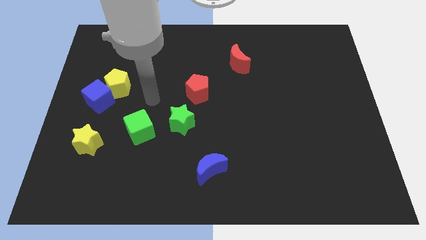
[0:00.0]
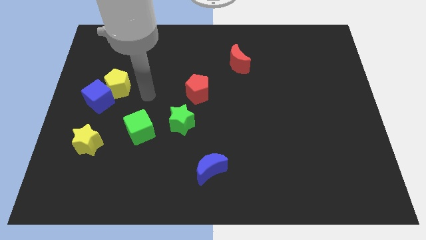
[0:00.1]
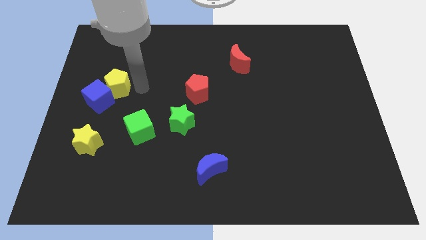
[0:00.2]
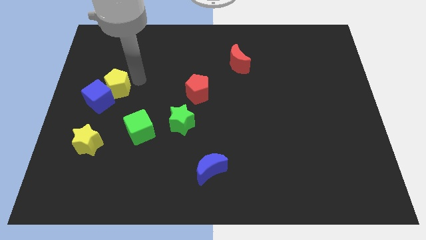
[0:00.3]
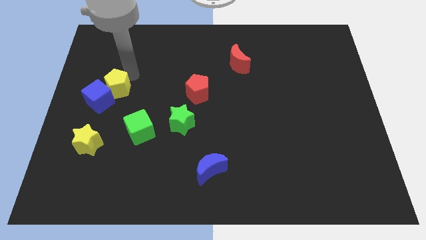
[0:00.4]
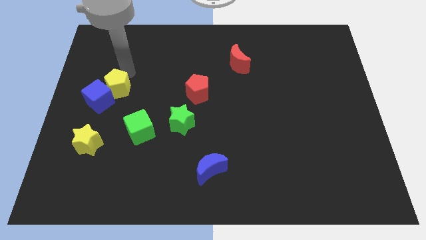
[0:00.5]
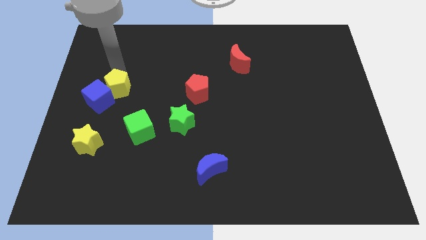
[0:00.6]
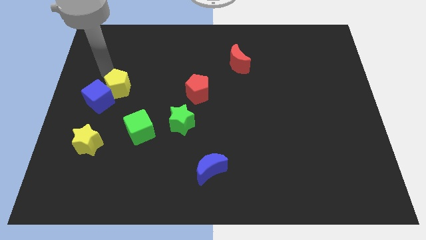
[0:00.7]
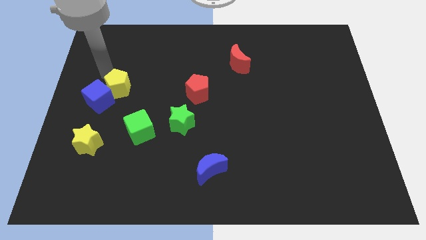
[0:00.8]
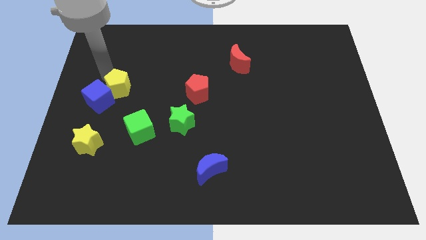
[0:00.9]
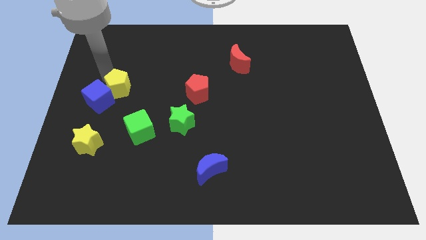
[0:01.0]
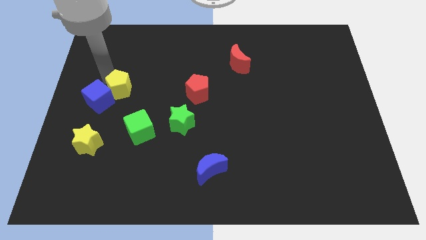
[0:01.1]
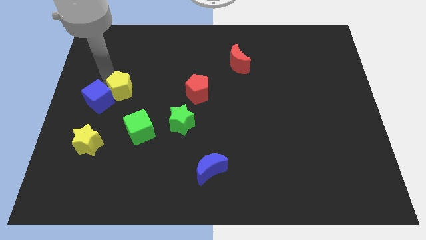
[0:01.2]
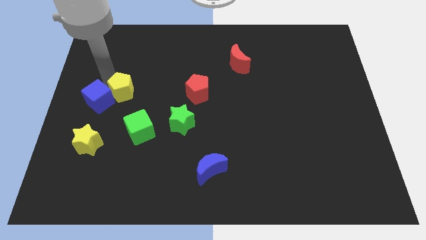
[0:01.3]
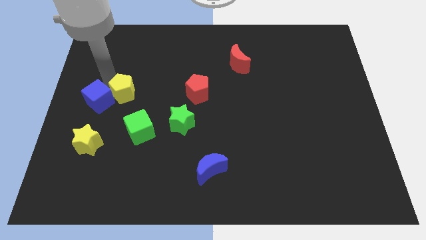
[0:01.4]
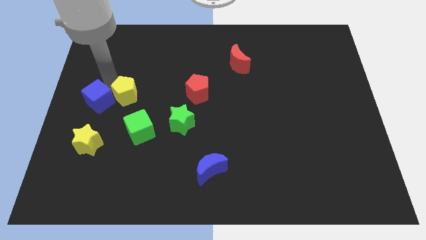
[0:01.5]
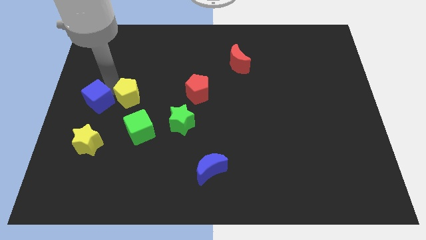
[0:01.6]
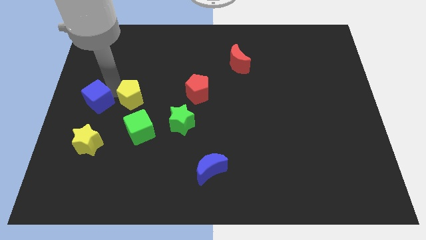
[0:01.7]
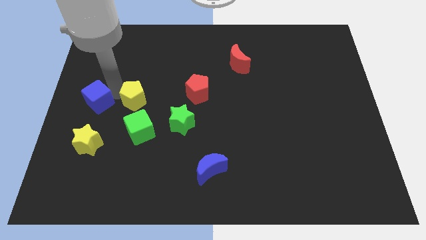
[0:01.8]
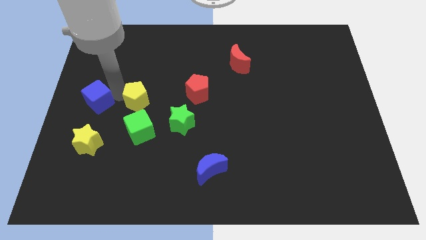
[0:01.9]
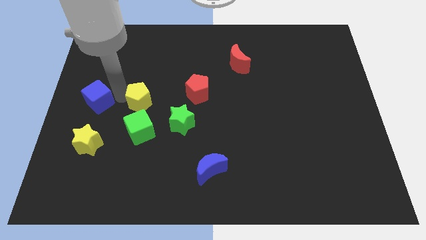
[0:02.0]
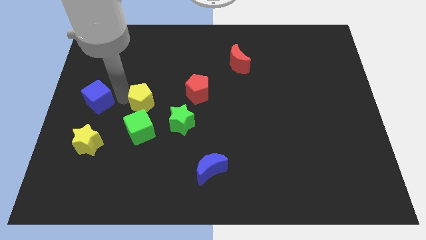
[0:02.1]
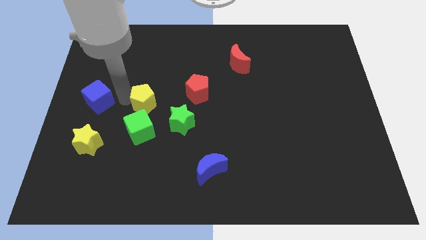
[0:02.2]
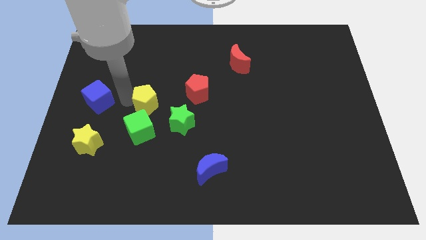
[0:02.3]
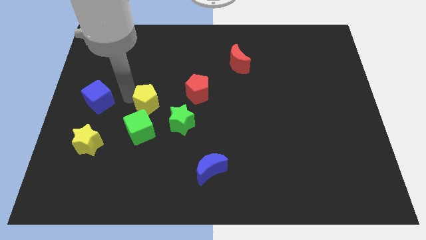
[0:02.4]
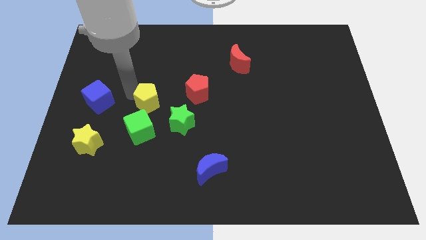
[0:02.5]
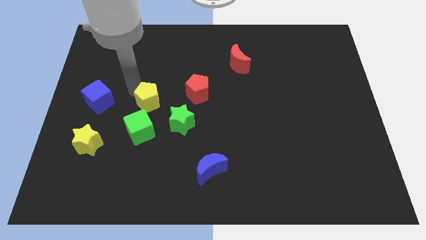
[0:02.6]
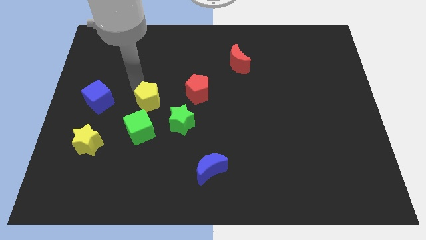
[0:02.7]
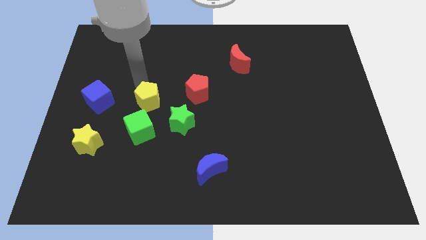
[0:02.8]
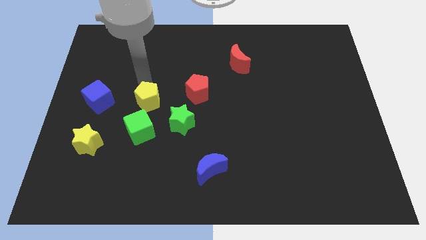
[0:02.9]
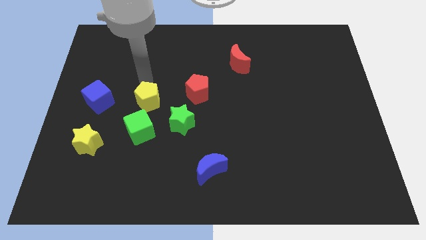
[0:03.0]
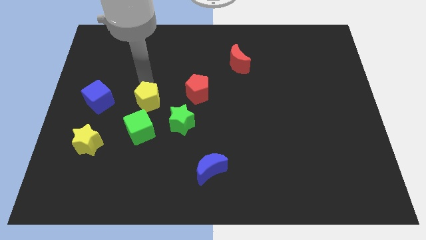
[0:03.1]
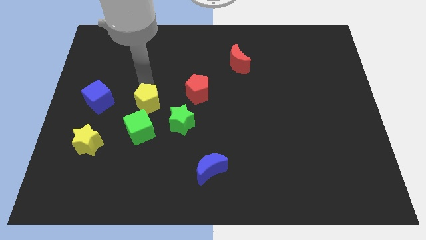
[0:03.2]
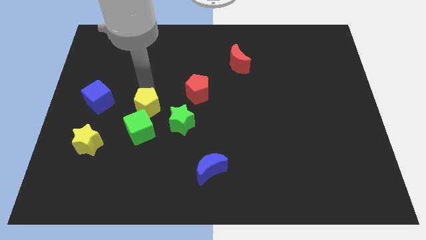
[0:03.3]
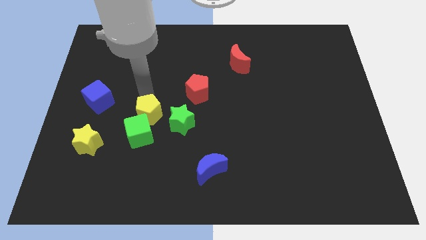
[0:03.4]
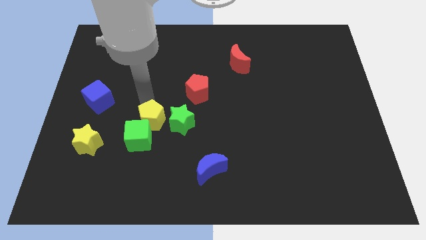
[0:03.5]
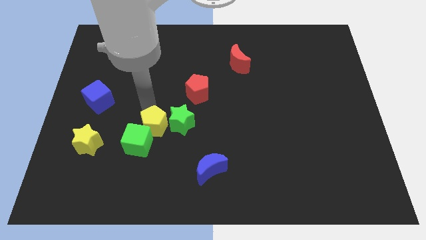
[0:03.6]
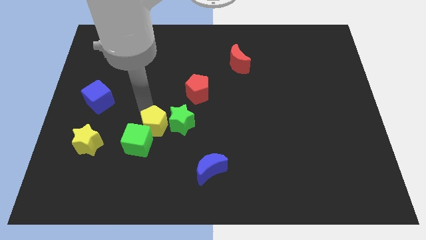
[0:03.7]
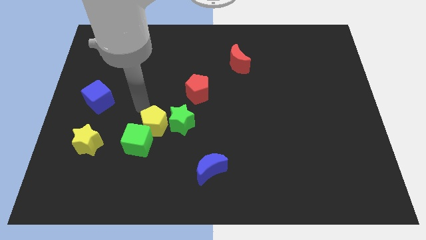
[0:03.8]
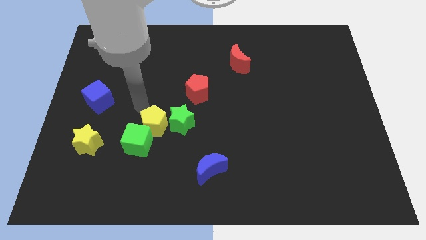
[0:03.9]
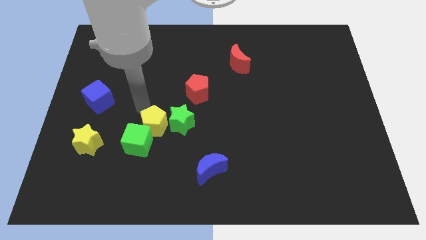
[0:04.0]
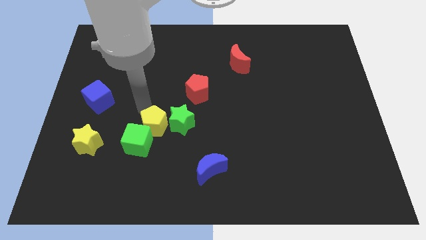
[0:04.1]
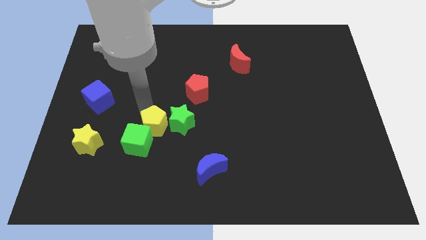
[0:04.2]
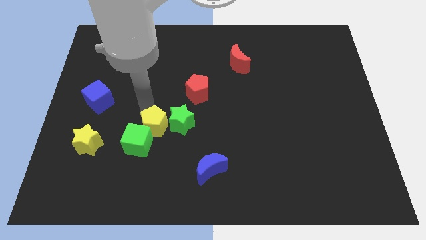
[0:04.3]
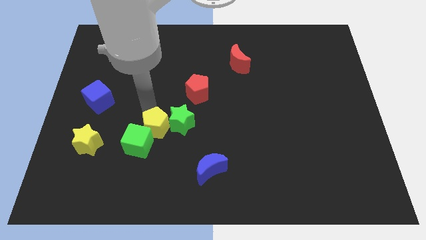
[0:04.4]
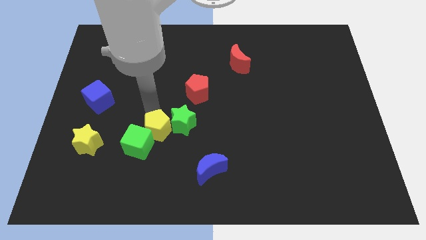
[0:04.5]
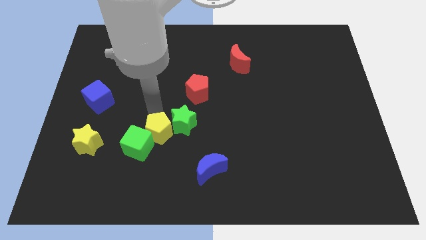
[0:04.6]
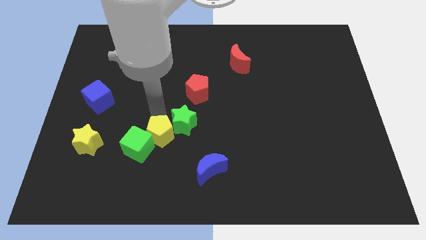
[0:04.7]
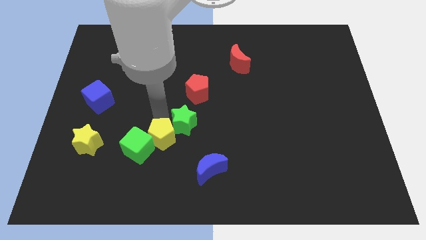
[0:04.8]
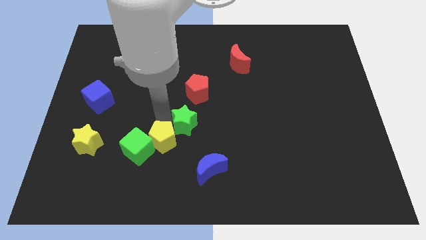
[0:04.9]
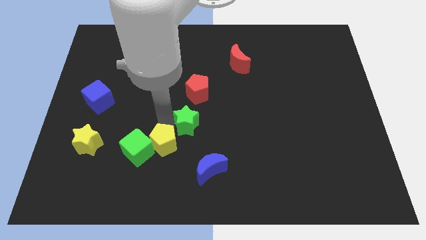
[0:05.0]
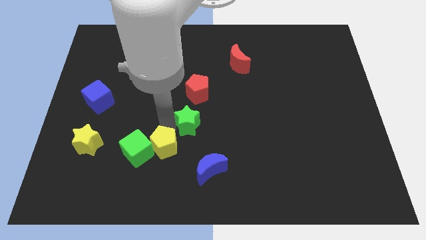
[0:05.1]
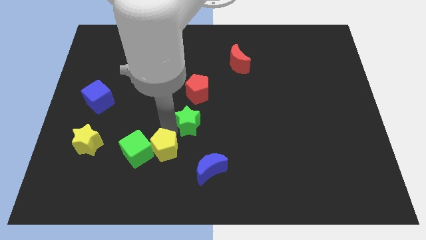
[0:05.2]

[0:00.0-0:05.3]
put the yellow pentagon diagonally down and to the right of the green cube

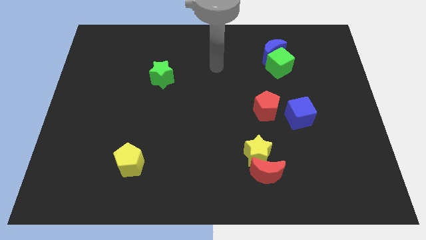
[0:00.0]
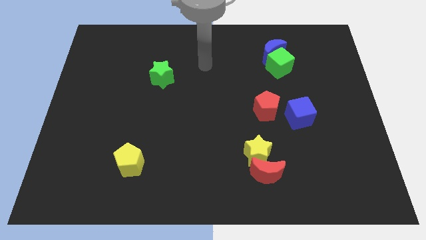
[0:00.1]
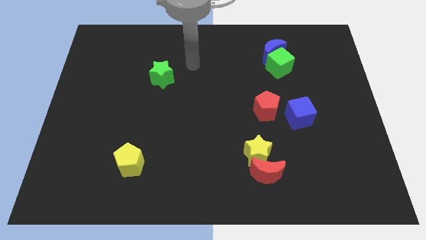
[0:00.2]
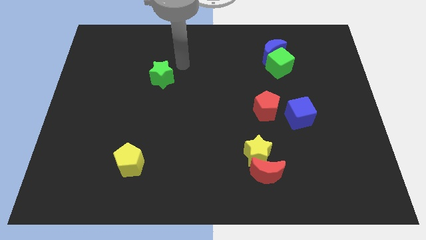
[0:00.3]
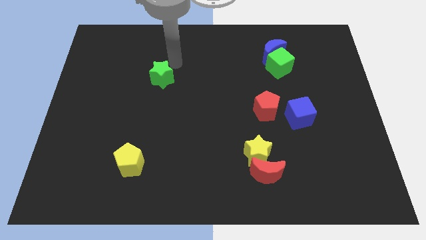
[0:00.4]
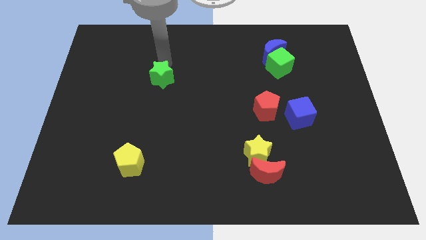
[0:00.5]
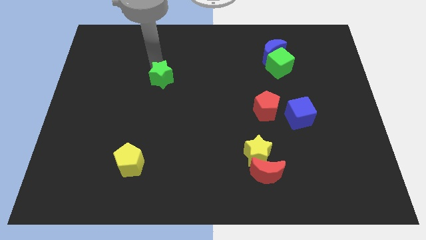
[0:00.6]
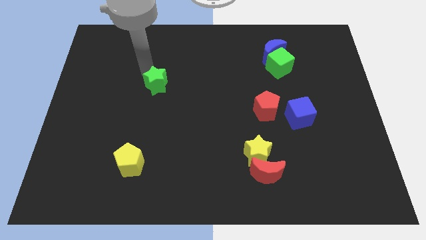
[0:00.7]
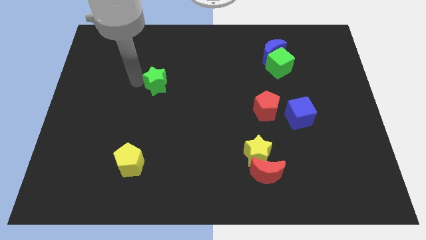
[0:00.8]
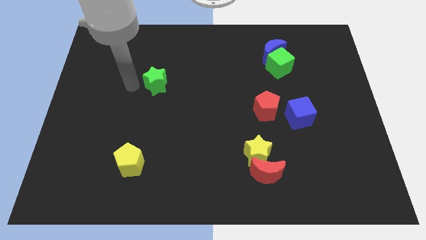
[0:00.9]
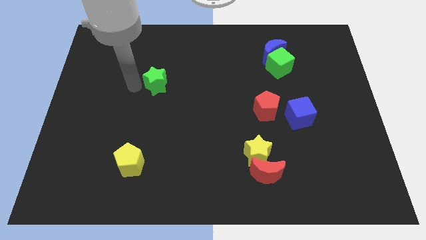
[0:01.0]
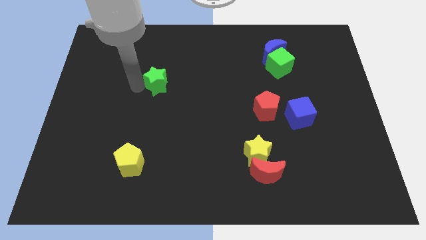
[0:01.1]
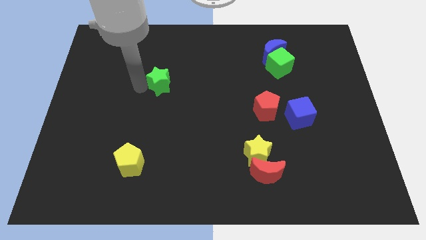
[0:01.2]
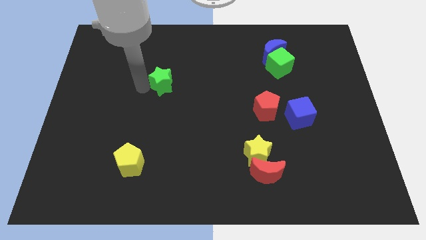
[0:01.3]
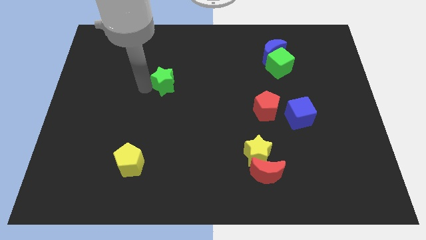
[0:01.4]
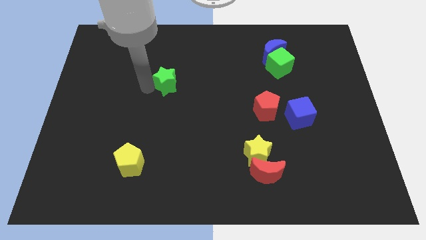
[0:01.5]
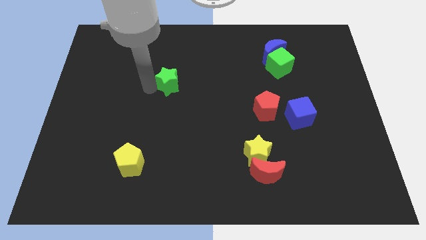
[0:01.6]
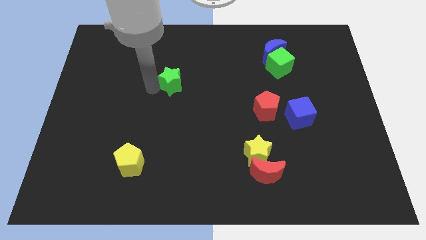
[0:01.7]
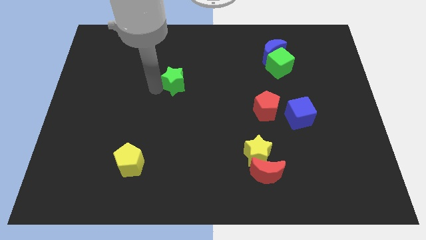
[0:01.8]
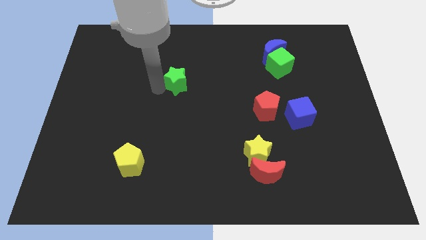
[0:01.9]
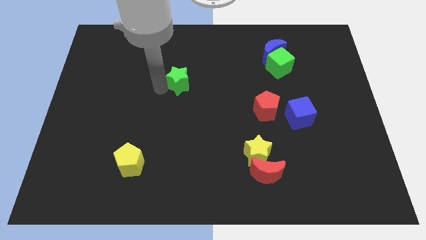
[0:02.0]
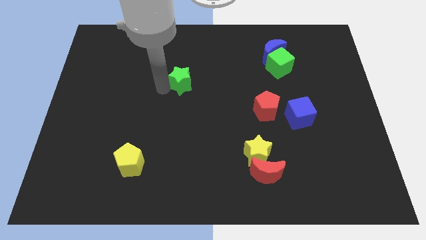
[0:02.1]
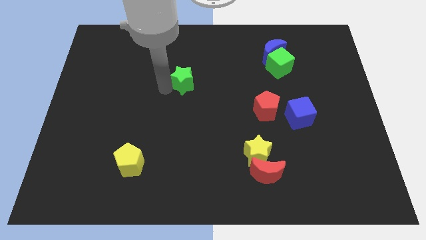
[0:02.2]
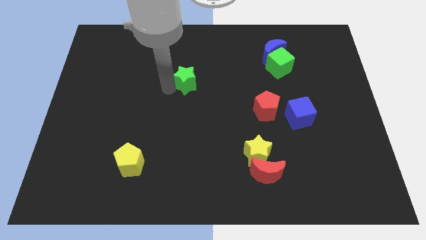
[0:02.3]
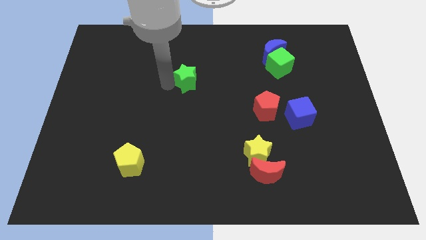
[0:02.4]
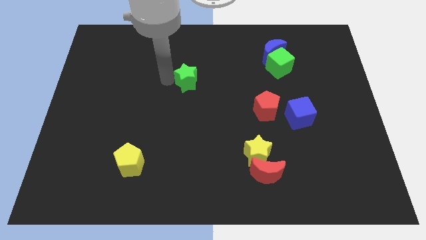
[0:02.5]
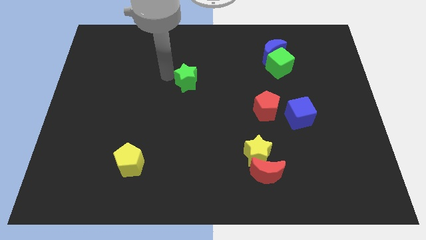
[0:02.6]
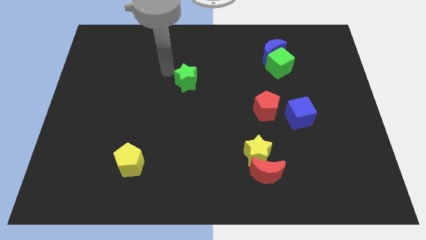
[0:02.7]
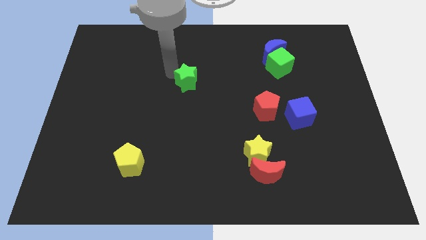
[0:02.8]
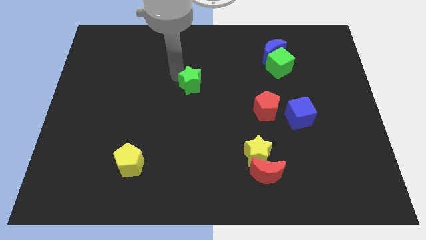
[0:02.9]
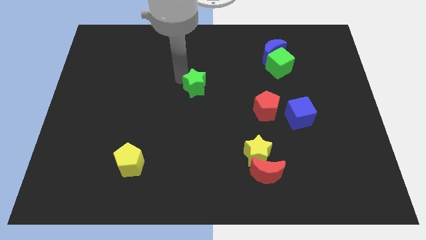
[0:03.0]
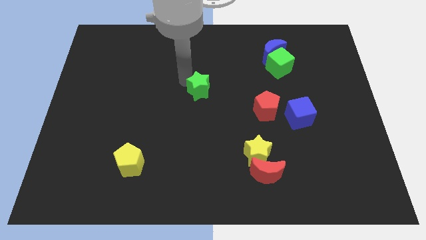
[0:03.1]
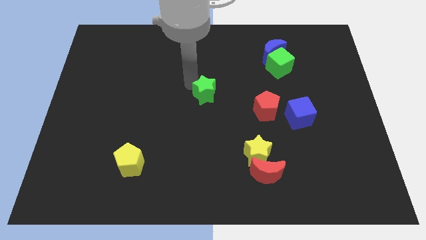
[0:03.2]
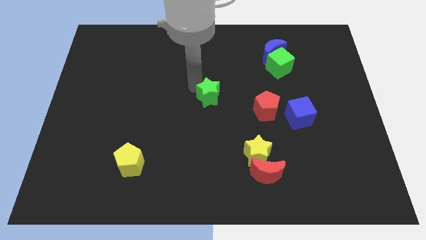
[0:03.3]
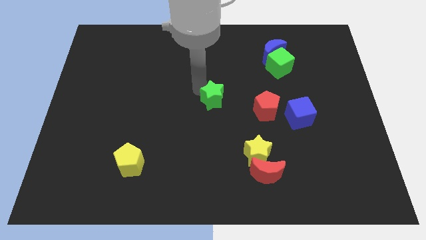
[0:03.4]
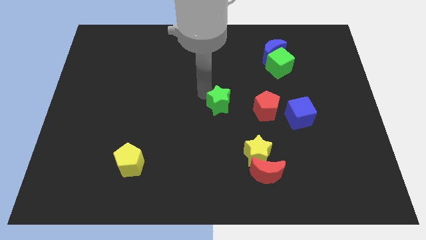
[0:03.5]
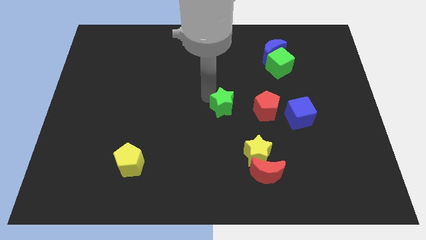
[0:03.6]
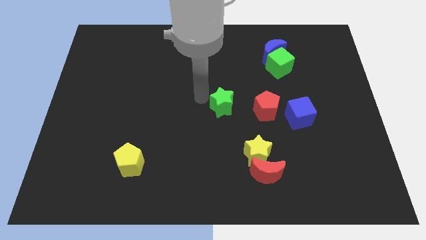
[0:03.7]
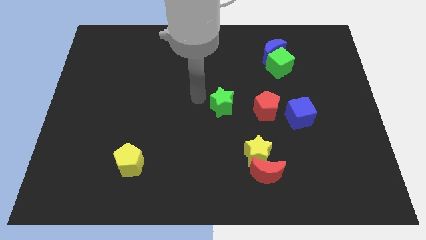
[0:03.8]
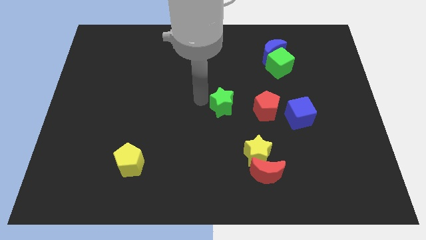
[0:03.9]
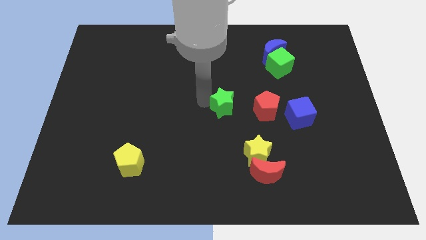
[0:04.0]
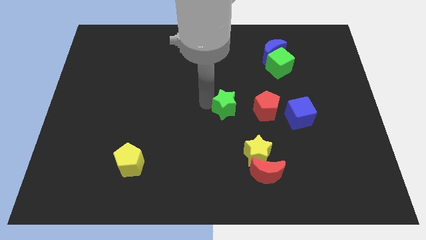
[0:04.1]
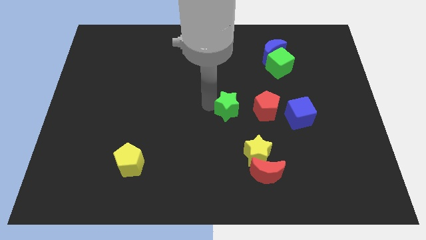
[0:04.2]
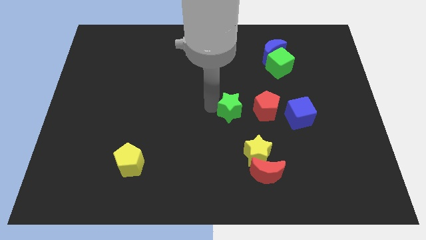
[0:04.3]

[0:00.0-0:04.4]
push the green star to the left side of the blue cube
